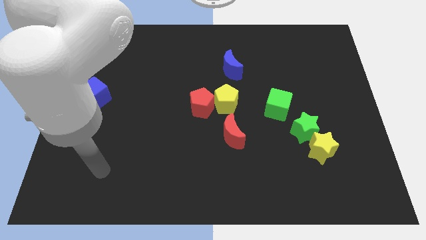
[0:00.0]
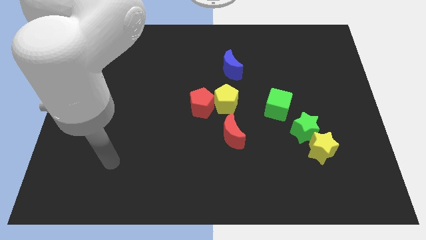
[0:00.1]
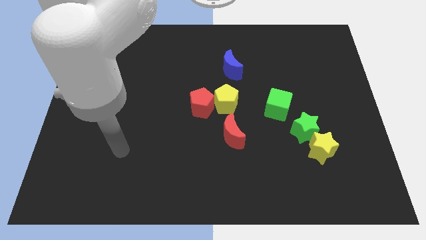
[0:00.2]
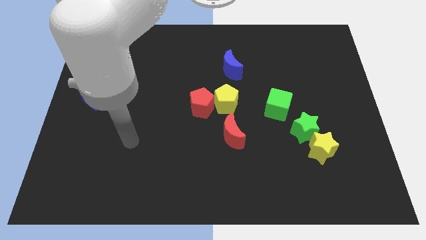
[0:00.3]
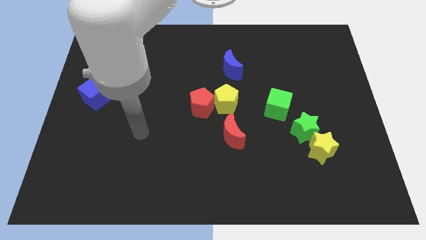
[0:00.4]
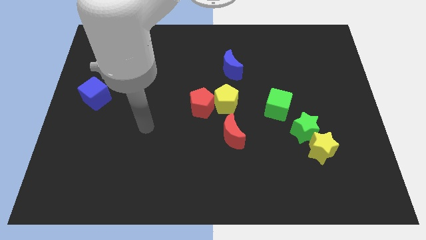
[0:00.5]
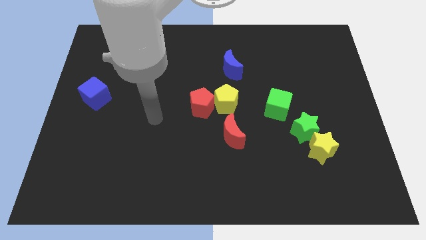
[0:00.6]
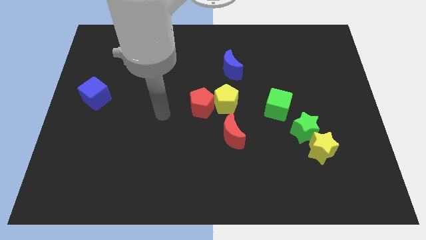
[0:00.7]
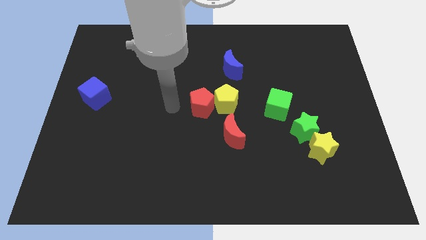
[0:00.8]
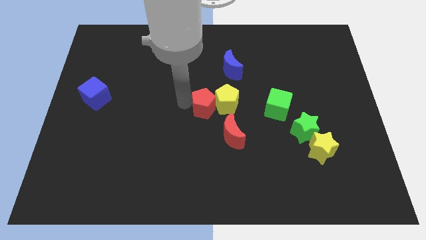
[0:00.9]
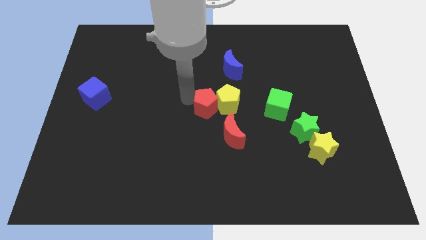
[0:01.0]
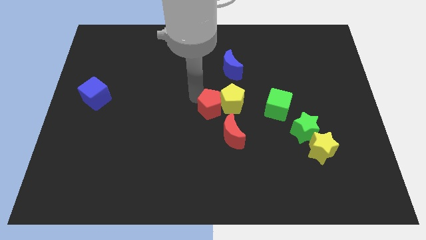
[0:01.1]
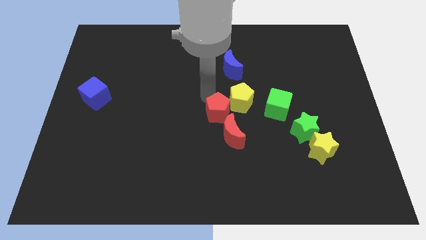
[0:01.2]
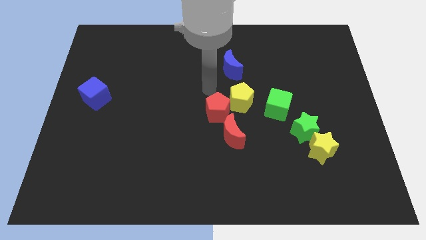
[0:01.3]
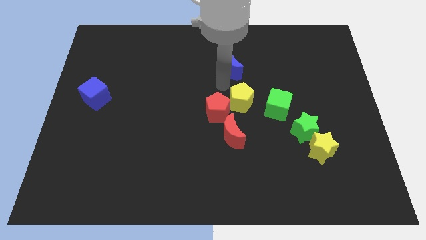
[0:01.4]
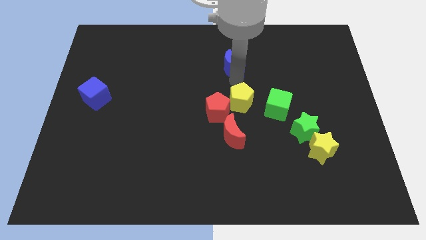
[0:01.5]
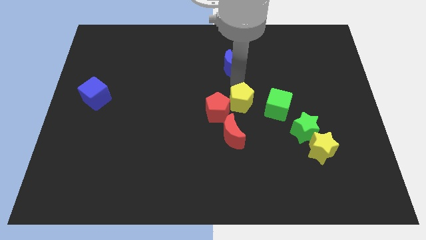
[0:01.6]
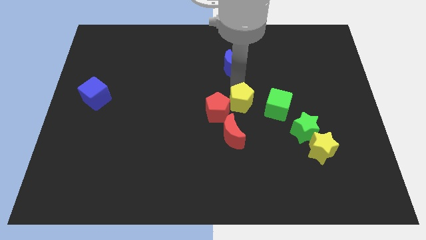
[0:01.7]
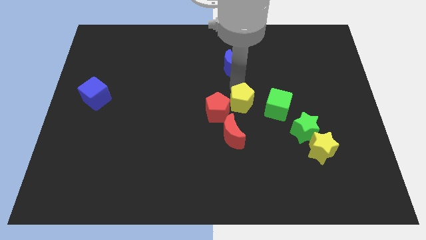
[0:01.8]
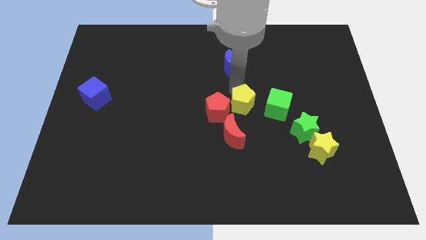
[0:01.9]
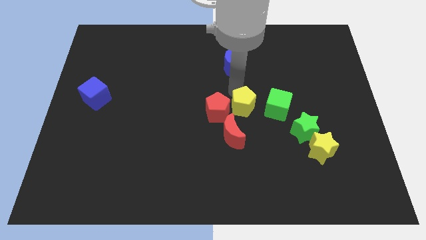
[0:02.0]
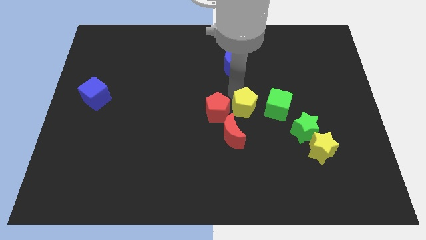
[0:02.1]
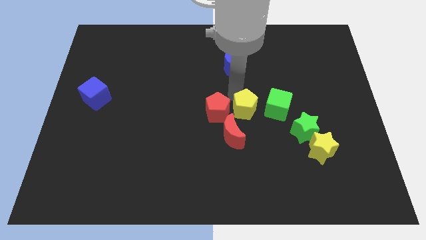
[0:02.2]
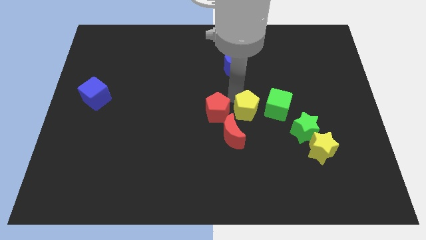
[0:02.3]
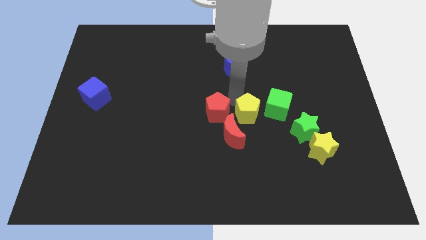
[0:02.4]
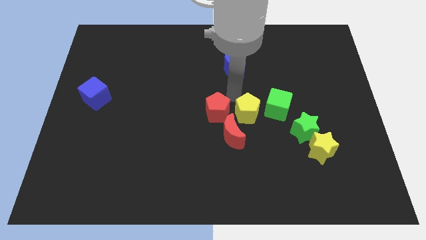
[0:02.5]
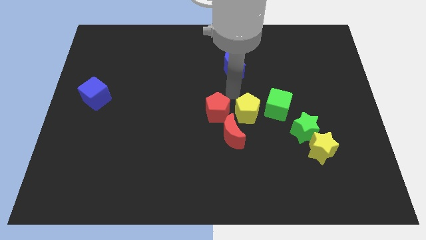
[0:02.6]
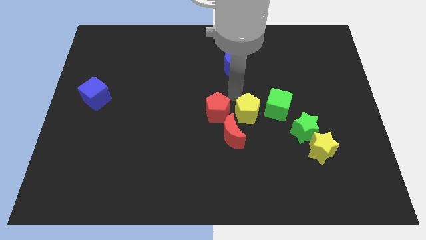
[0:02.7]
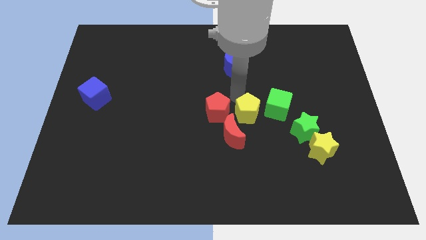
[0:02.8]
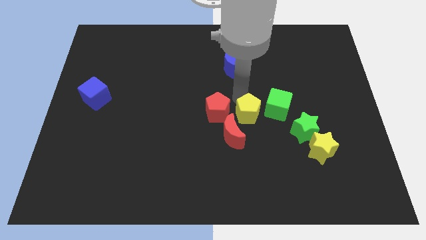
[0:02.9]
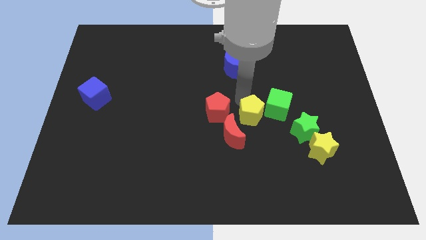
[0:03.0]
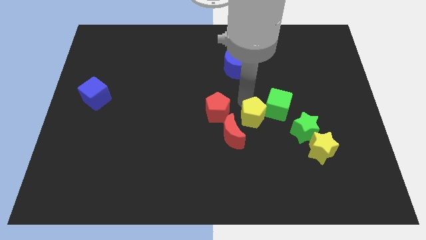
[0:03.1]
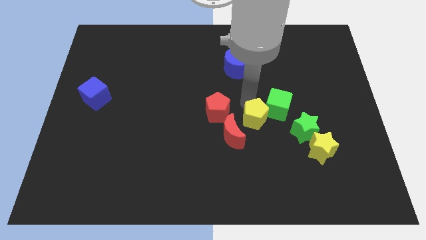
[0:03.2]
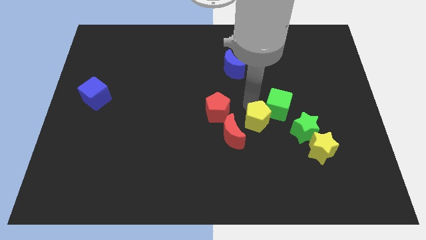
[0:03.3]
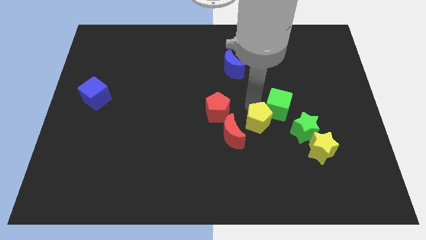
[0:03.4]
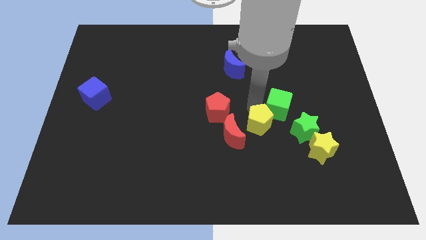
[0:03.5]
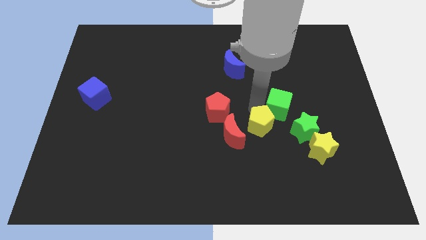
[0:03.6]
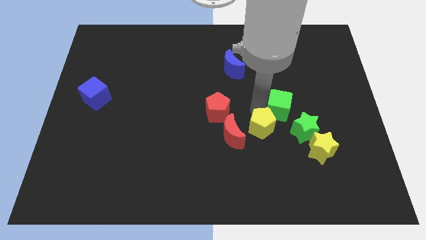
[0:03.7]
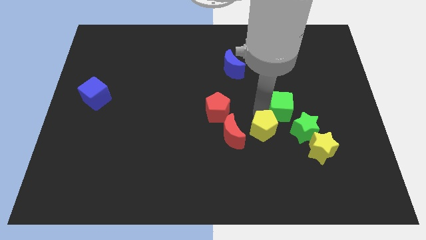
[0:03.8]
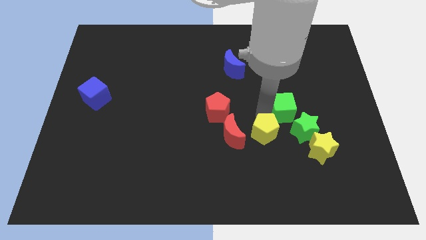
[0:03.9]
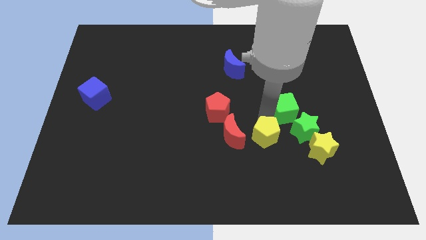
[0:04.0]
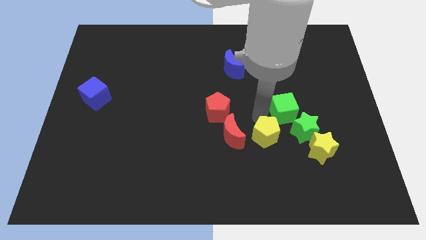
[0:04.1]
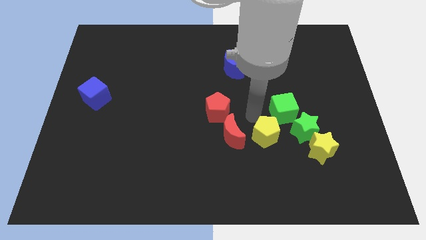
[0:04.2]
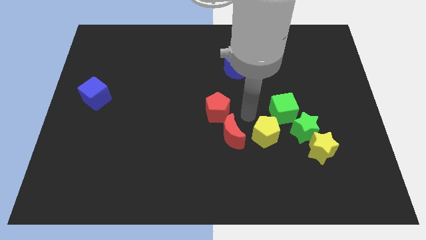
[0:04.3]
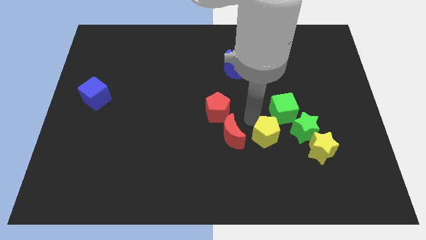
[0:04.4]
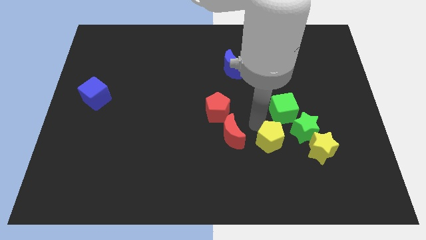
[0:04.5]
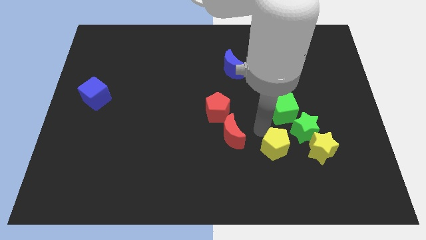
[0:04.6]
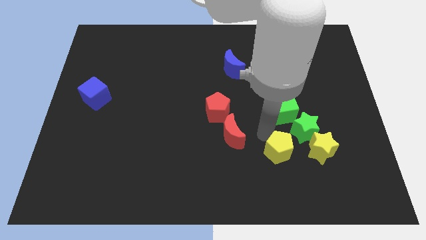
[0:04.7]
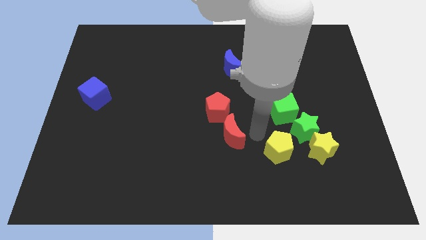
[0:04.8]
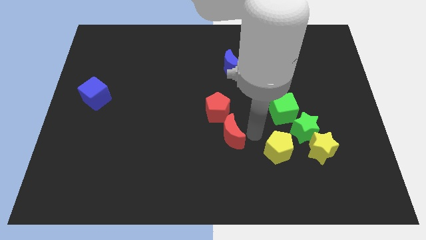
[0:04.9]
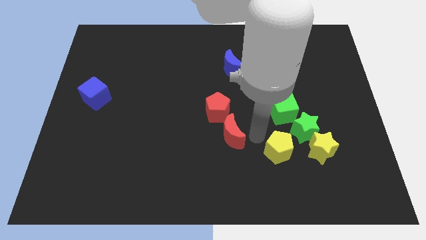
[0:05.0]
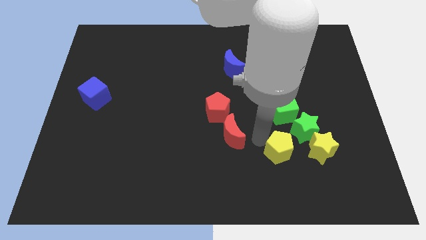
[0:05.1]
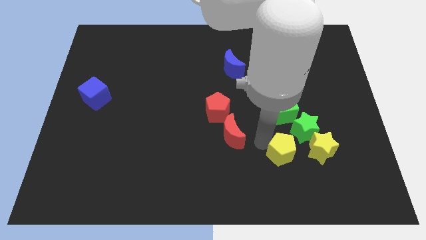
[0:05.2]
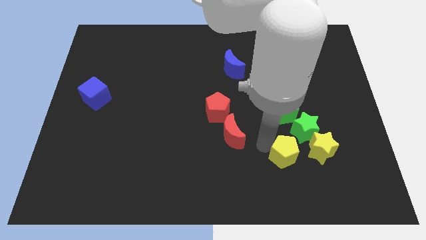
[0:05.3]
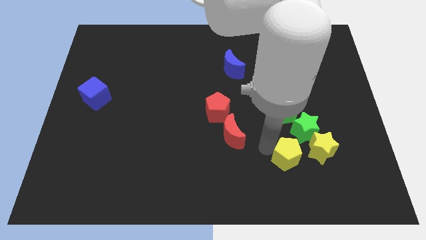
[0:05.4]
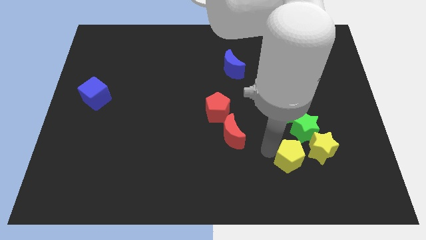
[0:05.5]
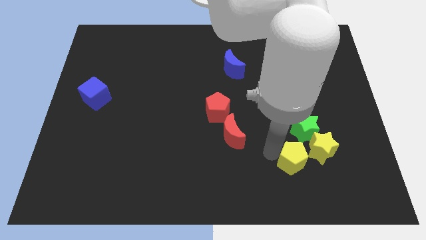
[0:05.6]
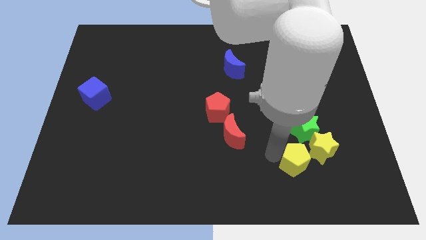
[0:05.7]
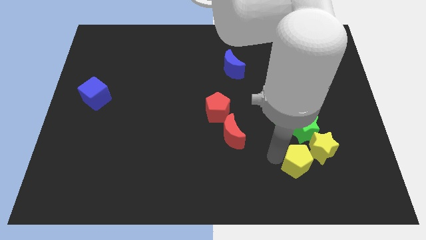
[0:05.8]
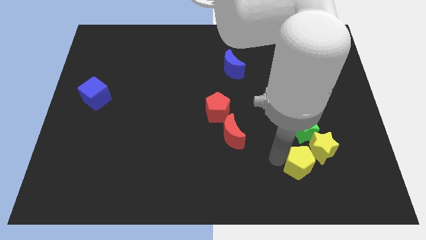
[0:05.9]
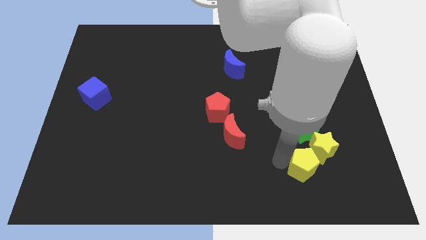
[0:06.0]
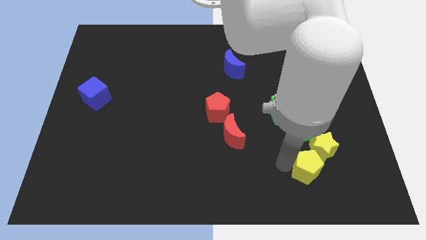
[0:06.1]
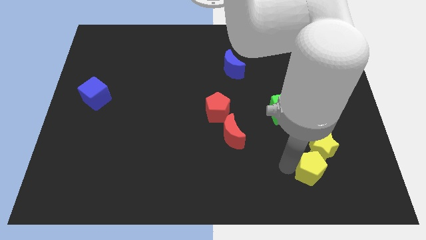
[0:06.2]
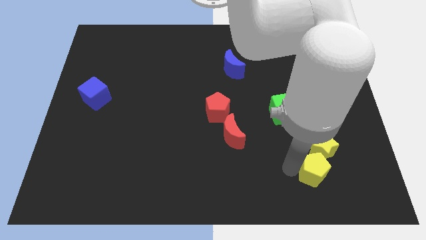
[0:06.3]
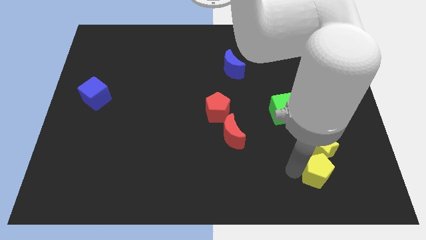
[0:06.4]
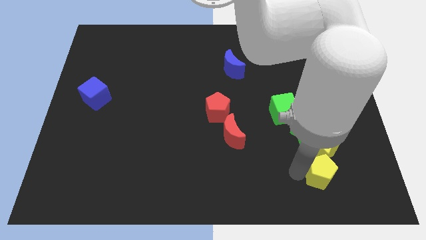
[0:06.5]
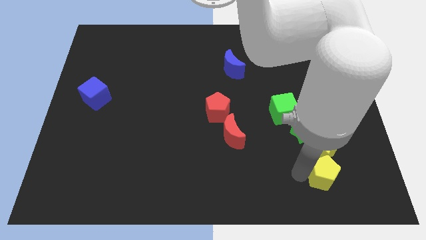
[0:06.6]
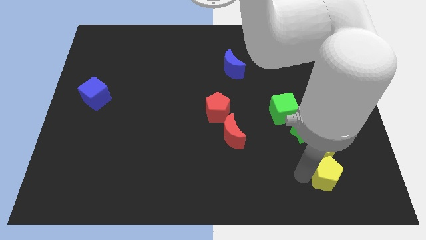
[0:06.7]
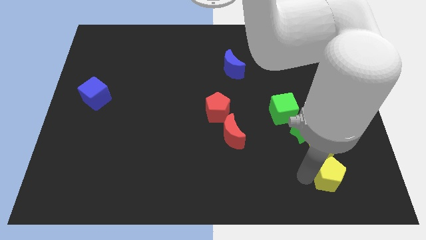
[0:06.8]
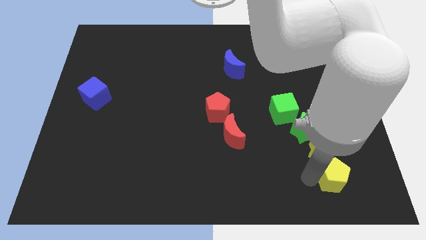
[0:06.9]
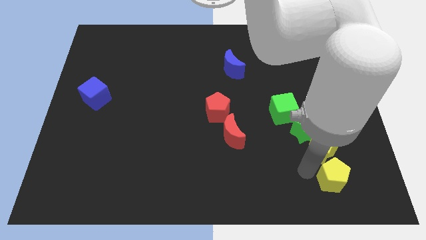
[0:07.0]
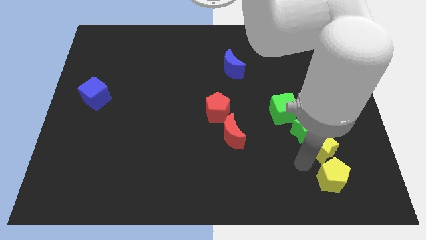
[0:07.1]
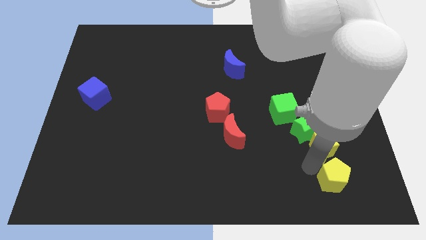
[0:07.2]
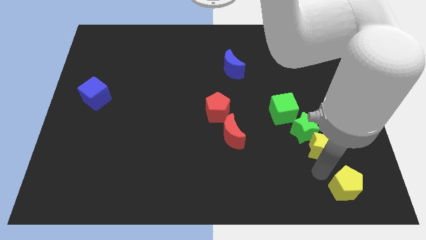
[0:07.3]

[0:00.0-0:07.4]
move the yellow pentagon to the lower right corner
